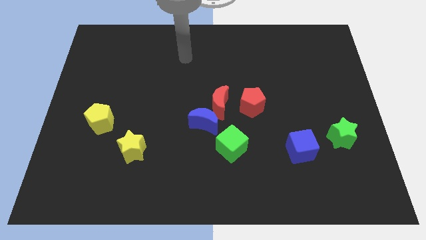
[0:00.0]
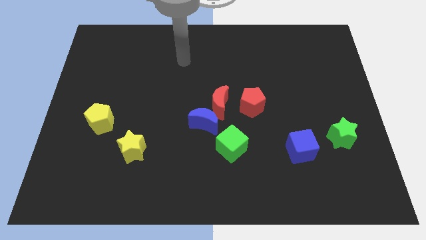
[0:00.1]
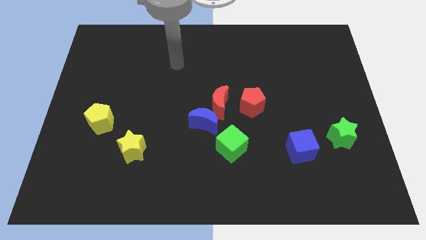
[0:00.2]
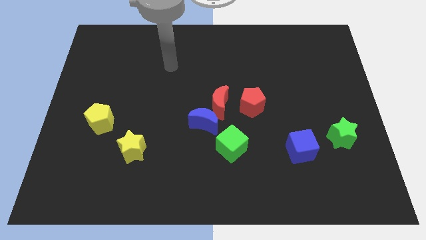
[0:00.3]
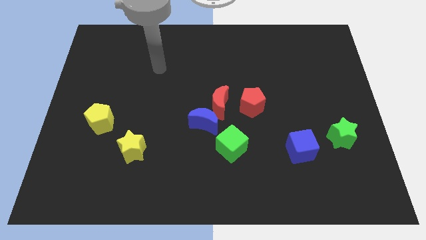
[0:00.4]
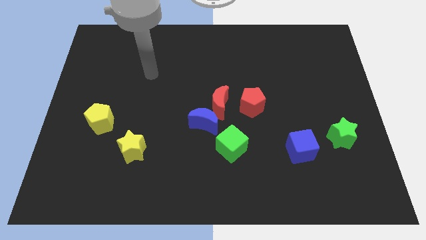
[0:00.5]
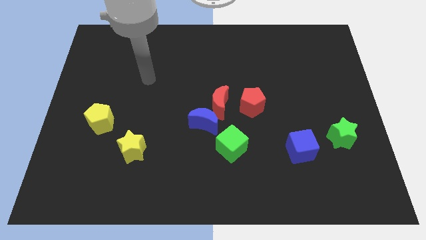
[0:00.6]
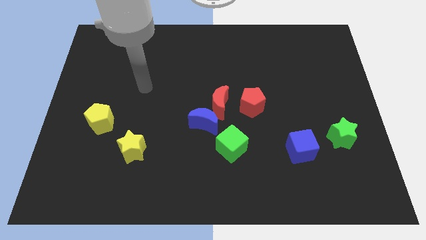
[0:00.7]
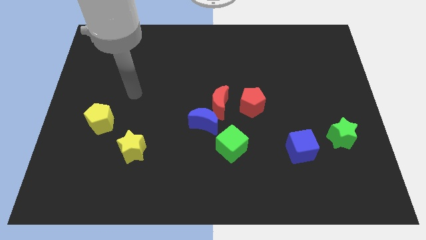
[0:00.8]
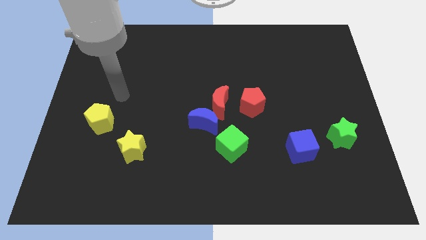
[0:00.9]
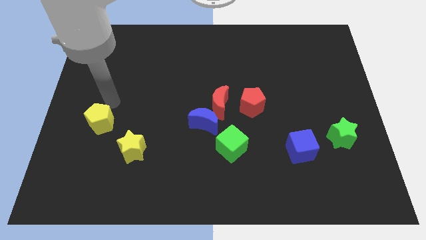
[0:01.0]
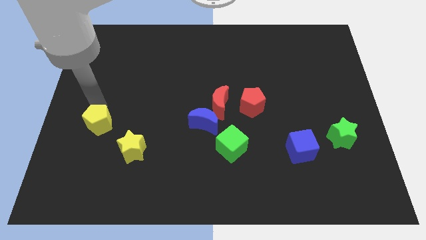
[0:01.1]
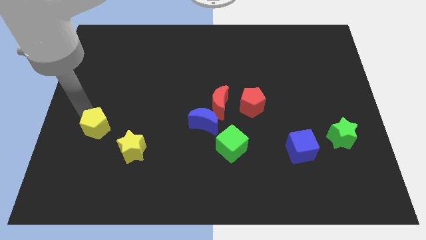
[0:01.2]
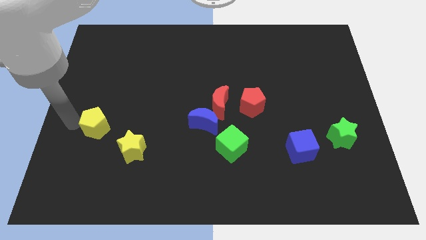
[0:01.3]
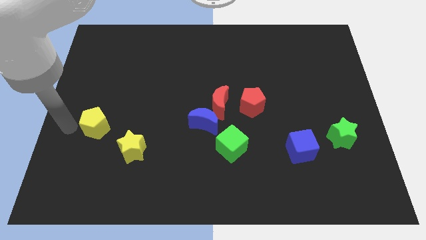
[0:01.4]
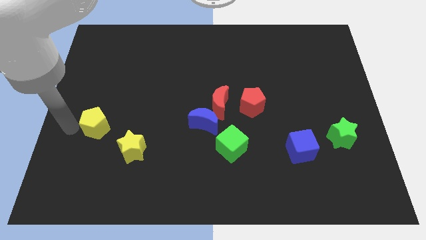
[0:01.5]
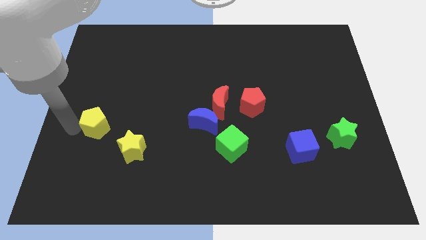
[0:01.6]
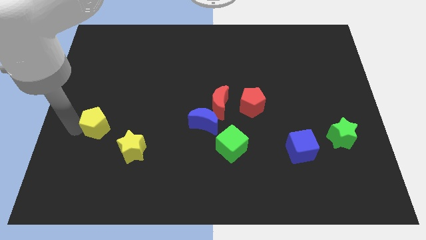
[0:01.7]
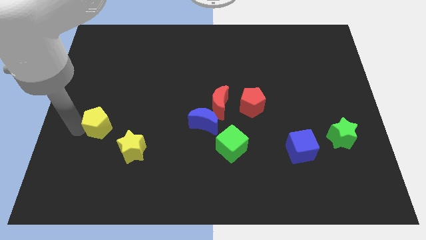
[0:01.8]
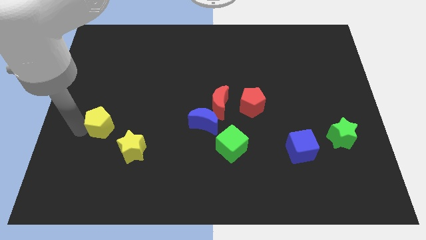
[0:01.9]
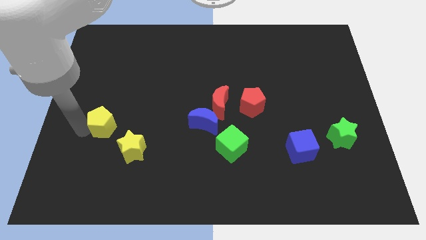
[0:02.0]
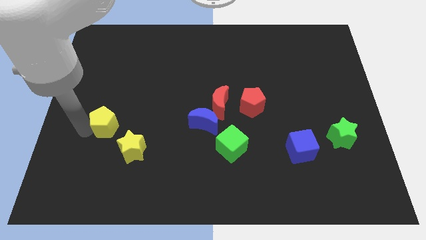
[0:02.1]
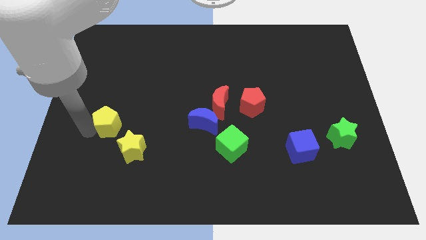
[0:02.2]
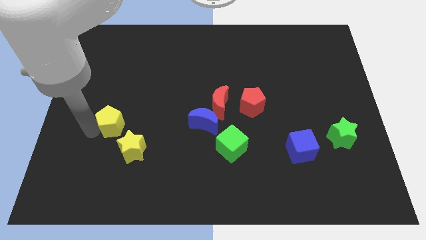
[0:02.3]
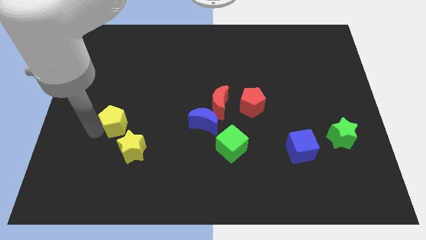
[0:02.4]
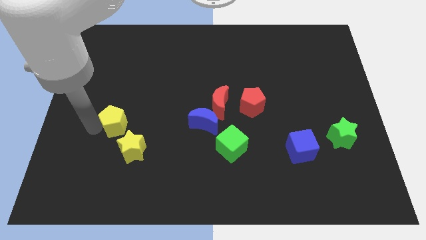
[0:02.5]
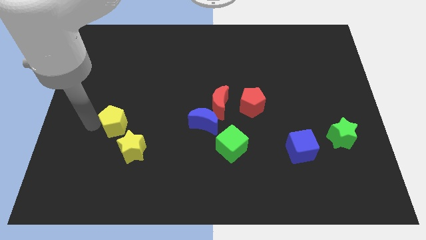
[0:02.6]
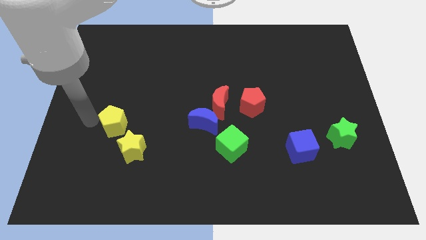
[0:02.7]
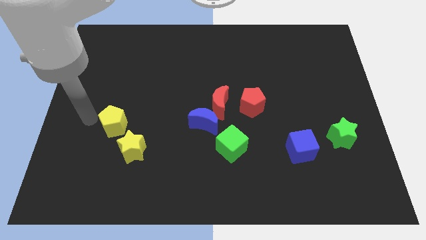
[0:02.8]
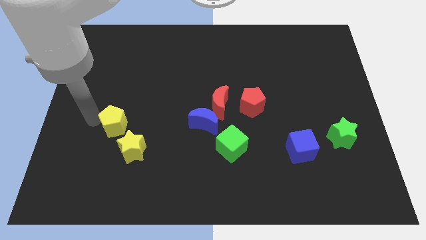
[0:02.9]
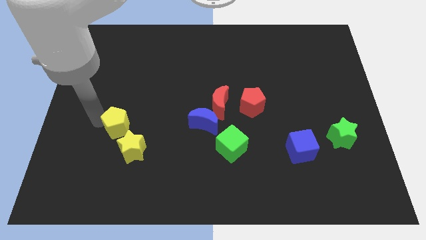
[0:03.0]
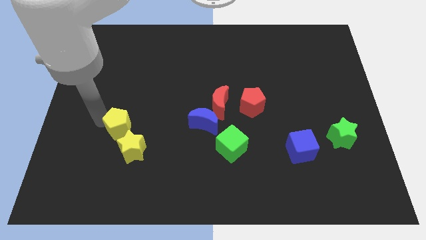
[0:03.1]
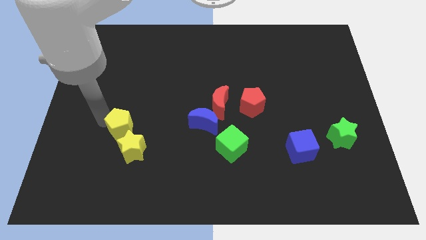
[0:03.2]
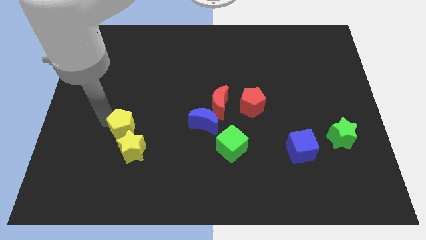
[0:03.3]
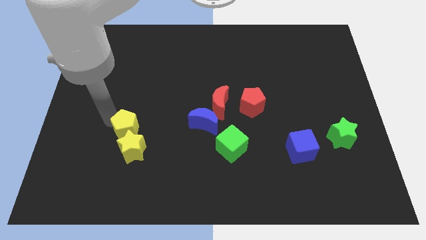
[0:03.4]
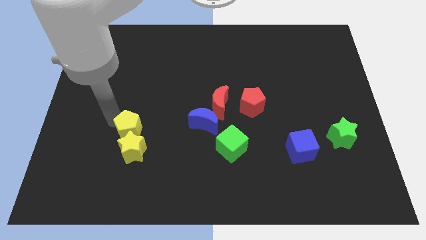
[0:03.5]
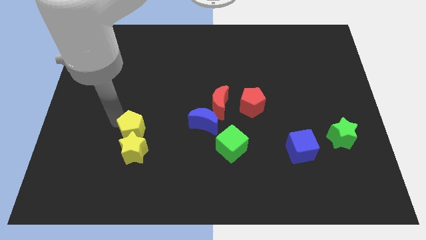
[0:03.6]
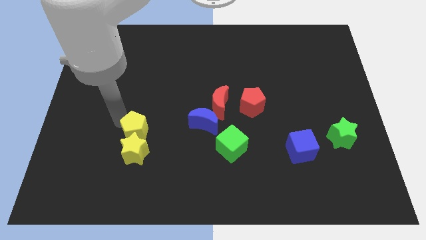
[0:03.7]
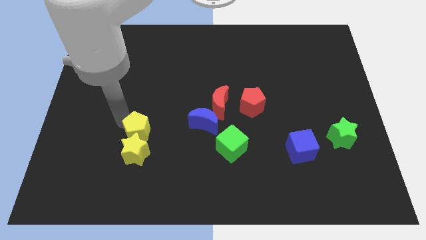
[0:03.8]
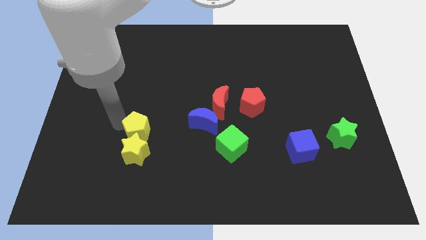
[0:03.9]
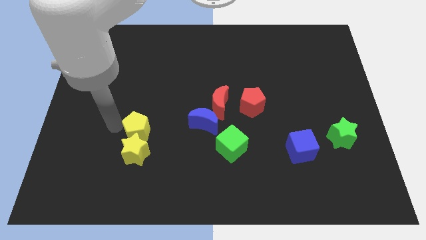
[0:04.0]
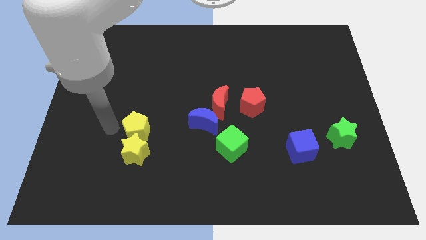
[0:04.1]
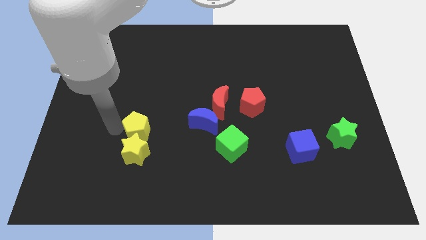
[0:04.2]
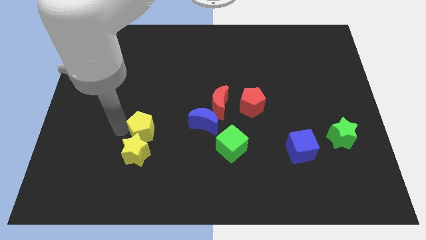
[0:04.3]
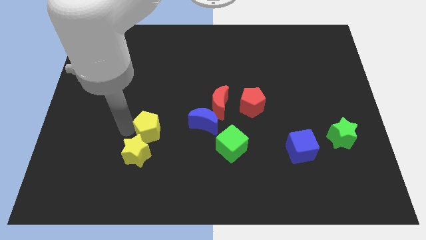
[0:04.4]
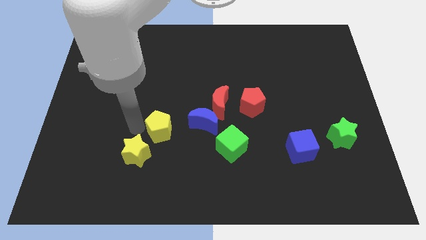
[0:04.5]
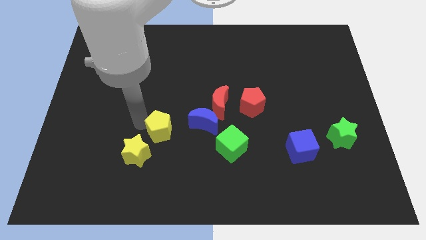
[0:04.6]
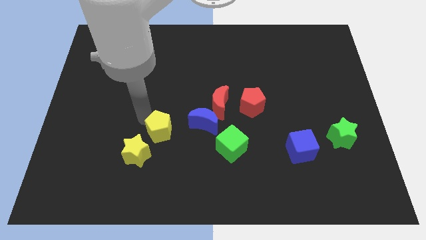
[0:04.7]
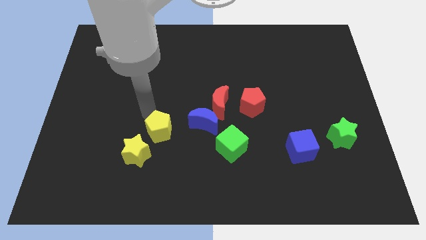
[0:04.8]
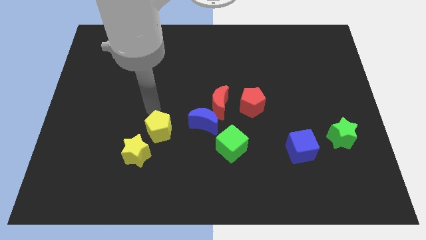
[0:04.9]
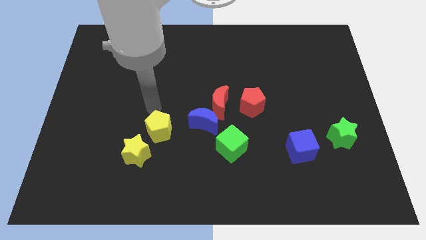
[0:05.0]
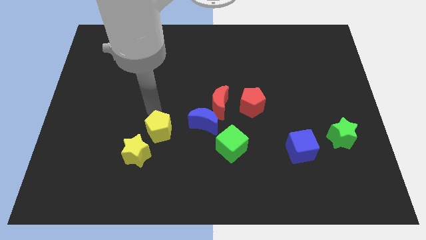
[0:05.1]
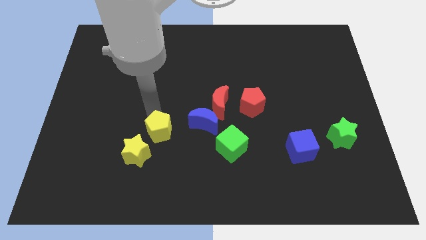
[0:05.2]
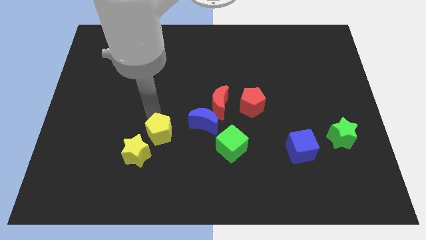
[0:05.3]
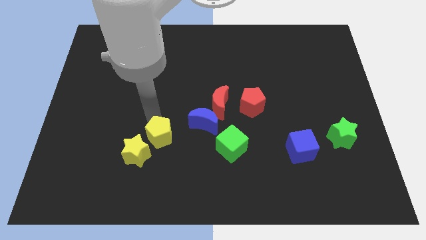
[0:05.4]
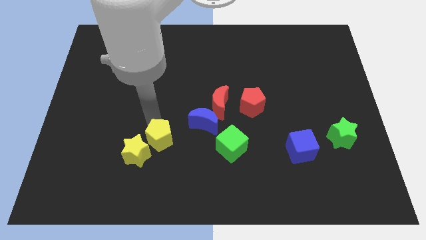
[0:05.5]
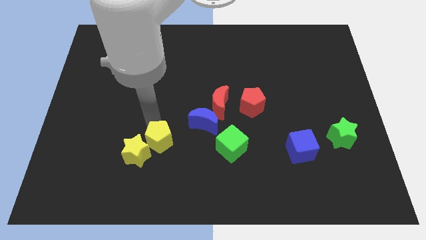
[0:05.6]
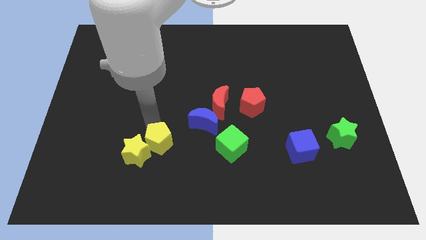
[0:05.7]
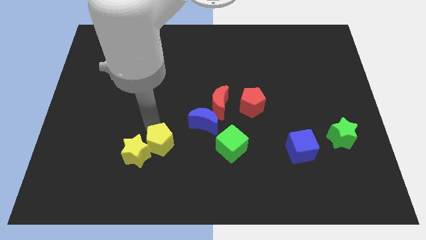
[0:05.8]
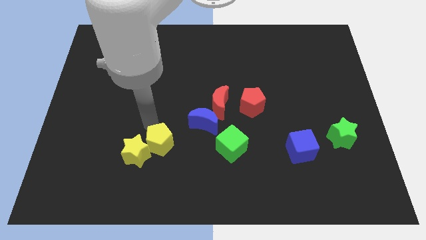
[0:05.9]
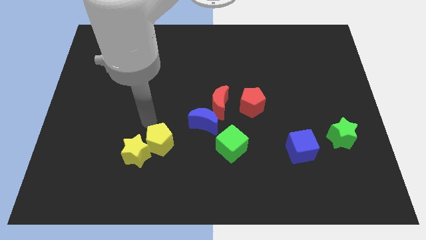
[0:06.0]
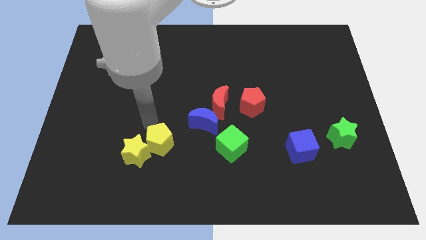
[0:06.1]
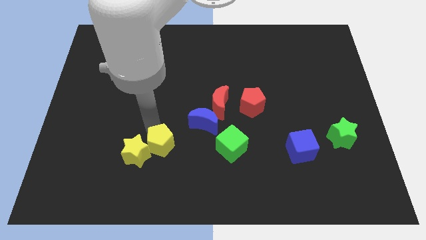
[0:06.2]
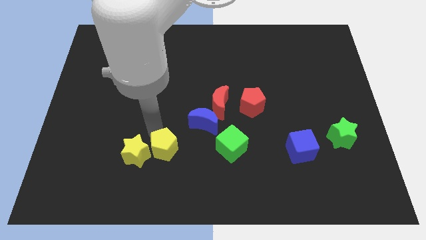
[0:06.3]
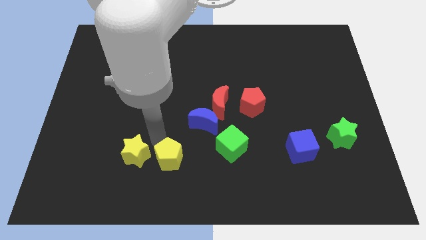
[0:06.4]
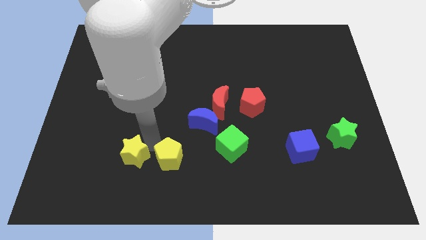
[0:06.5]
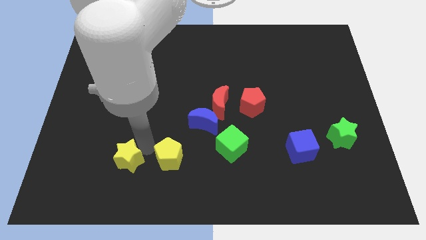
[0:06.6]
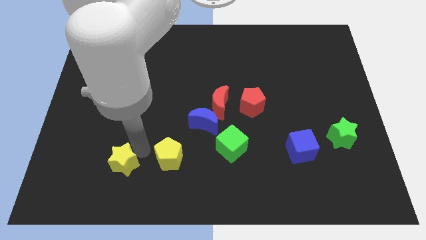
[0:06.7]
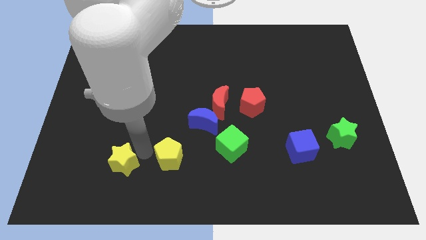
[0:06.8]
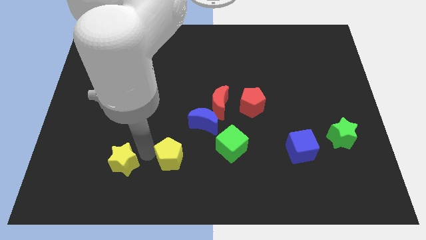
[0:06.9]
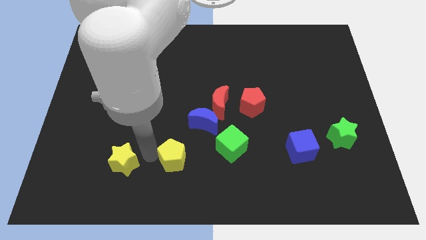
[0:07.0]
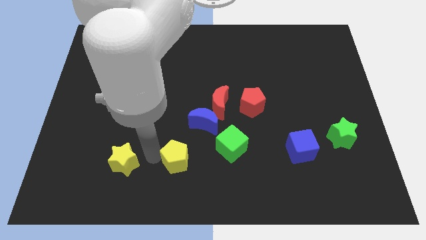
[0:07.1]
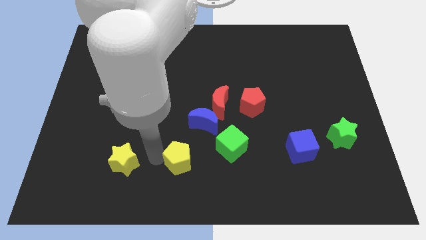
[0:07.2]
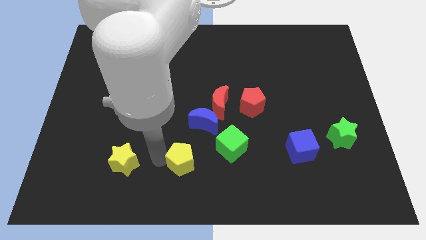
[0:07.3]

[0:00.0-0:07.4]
push the yellow pentagon below the blue moon
